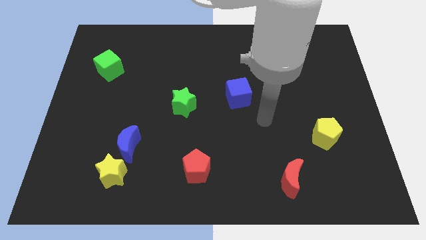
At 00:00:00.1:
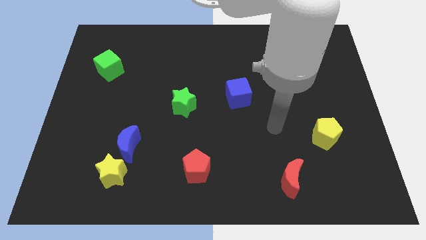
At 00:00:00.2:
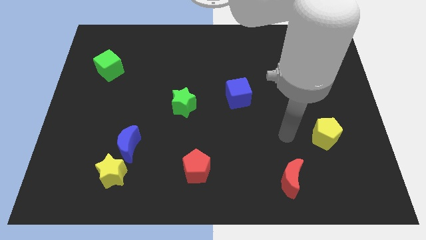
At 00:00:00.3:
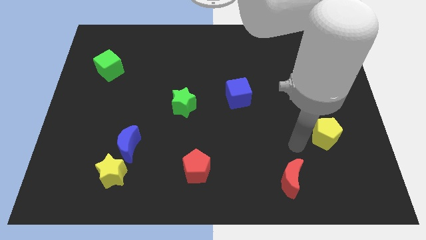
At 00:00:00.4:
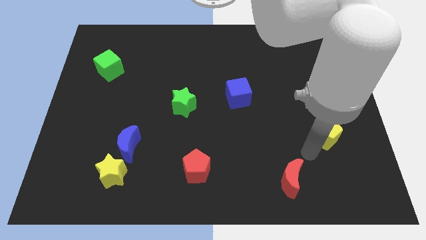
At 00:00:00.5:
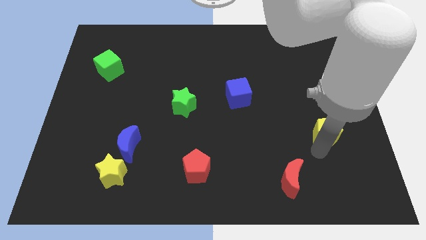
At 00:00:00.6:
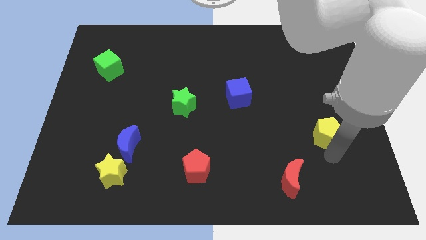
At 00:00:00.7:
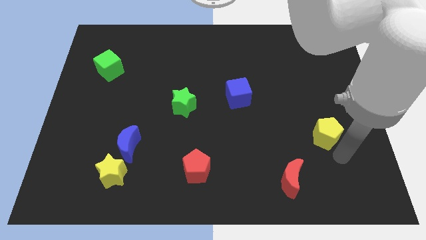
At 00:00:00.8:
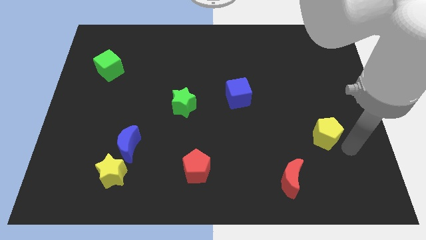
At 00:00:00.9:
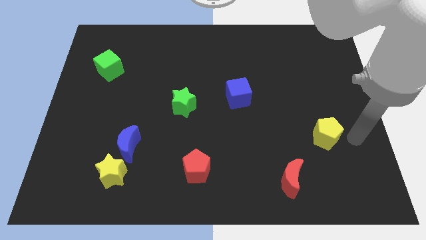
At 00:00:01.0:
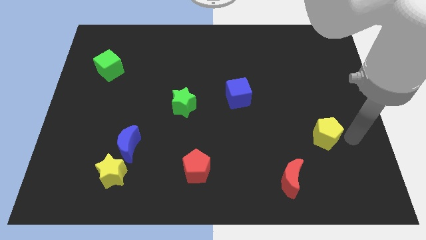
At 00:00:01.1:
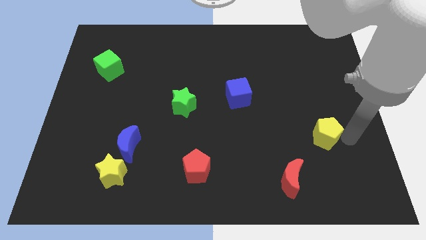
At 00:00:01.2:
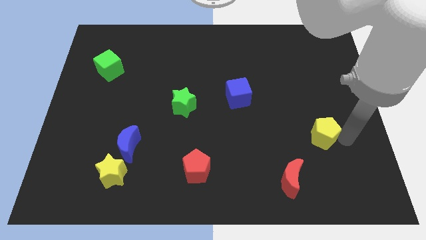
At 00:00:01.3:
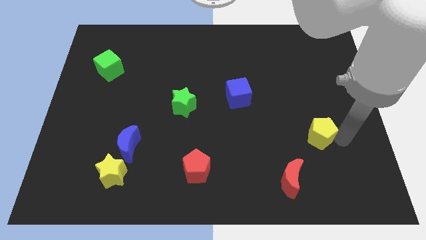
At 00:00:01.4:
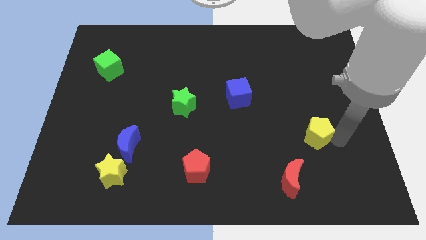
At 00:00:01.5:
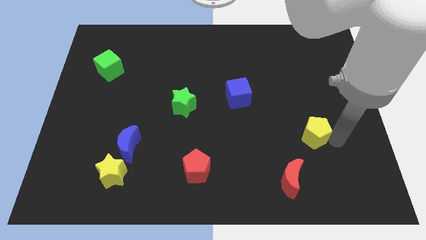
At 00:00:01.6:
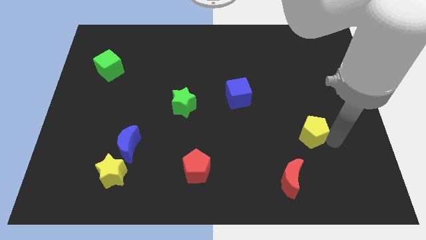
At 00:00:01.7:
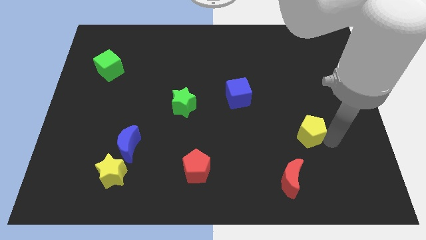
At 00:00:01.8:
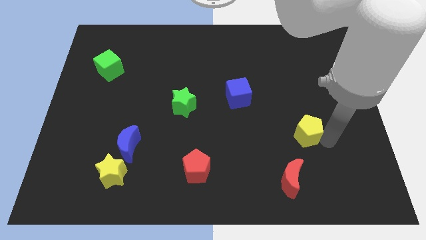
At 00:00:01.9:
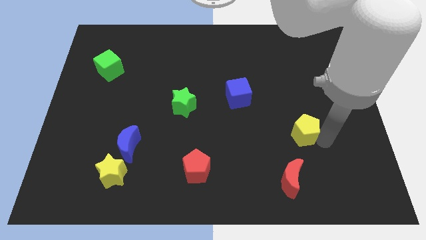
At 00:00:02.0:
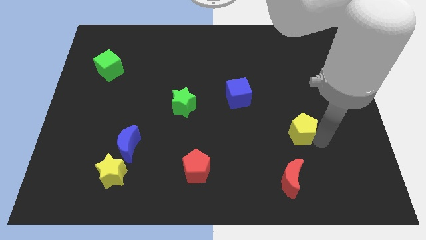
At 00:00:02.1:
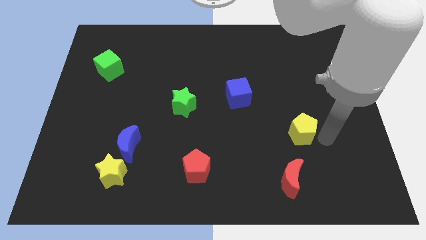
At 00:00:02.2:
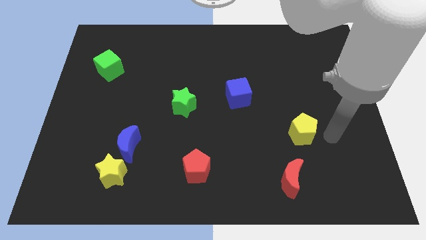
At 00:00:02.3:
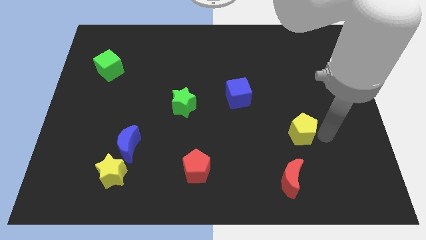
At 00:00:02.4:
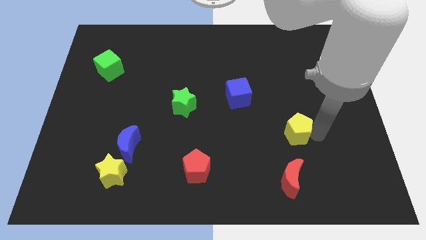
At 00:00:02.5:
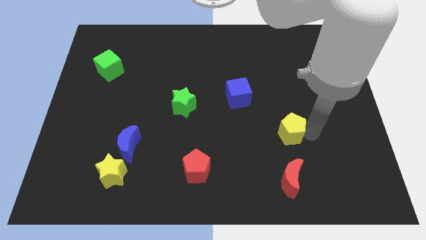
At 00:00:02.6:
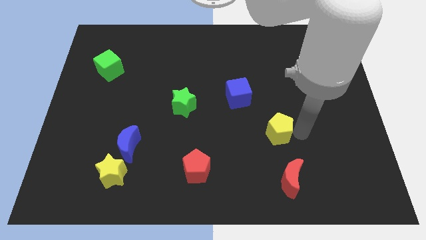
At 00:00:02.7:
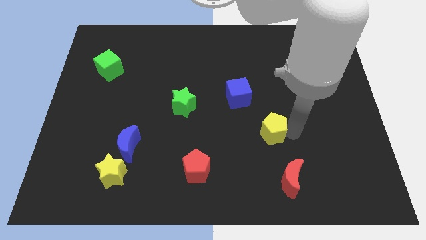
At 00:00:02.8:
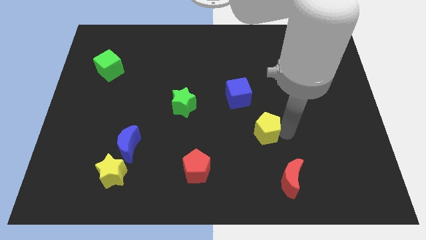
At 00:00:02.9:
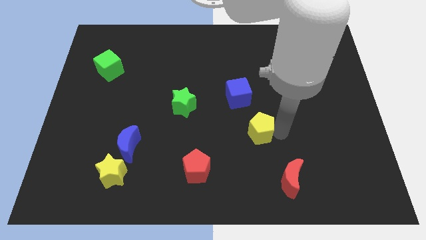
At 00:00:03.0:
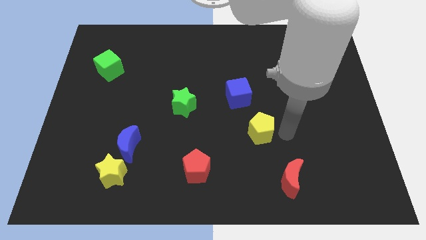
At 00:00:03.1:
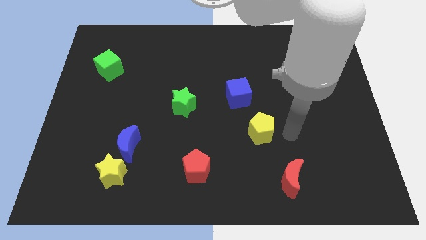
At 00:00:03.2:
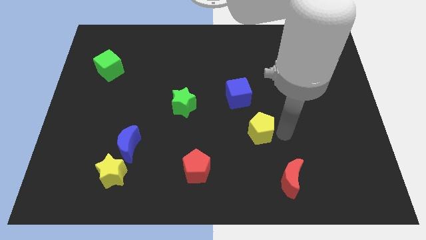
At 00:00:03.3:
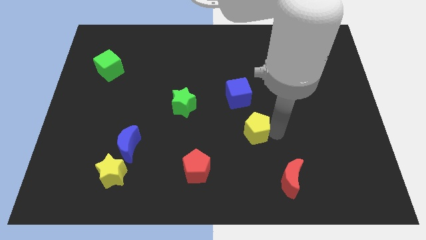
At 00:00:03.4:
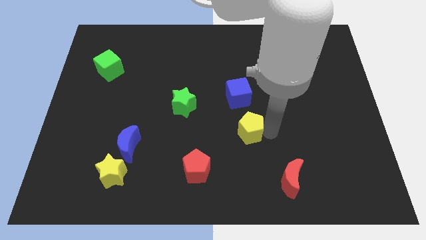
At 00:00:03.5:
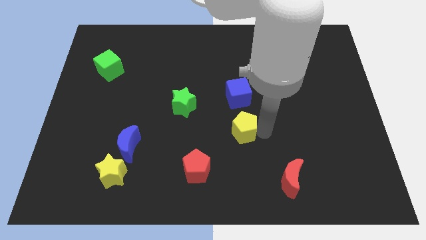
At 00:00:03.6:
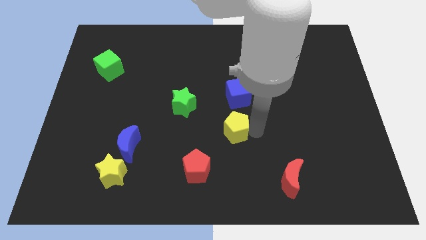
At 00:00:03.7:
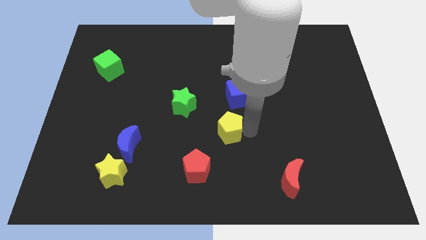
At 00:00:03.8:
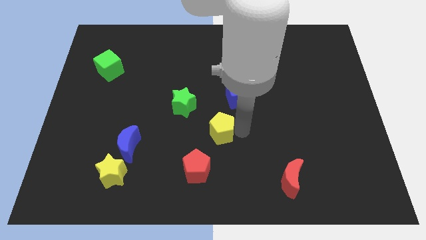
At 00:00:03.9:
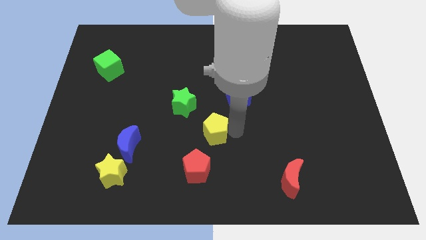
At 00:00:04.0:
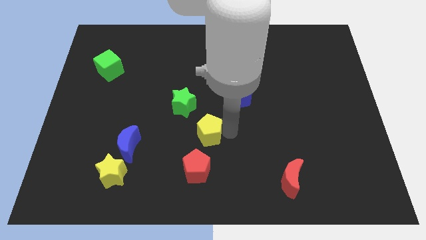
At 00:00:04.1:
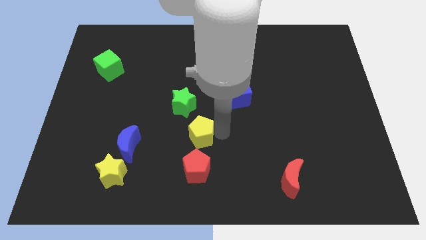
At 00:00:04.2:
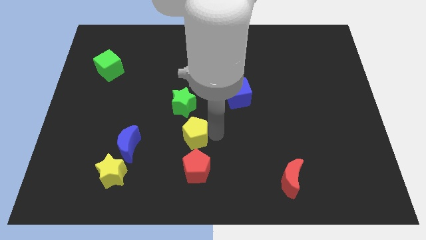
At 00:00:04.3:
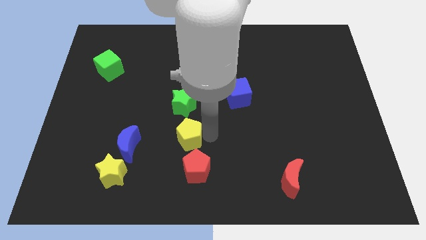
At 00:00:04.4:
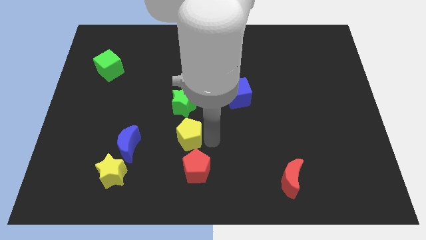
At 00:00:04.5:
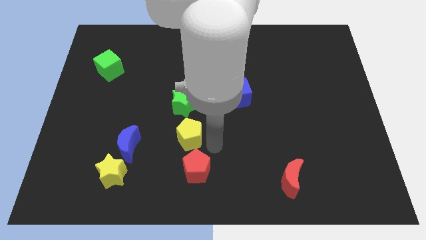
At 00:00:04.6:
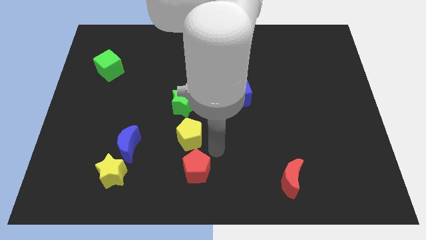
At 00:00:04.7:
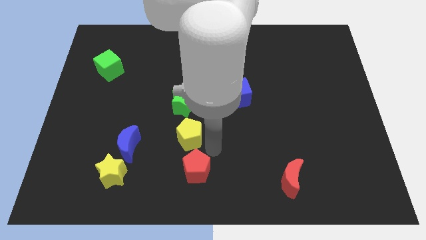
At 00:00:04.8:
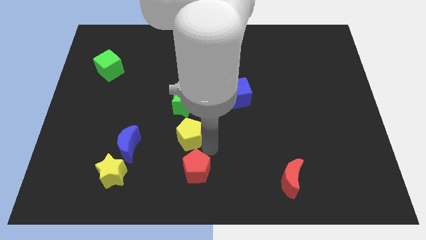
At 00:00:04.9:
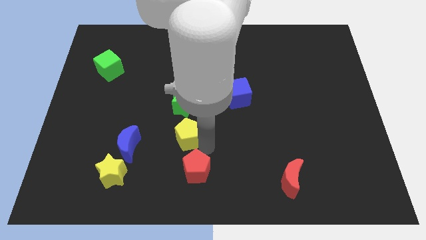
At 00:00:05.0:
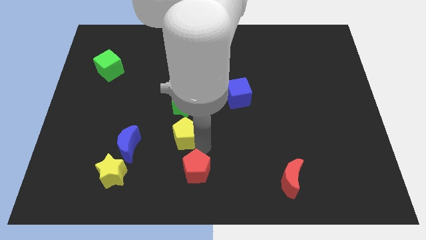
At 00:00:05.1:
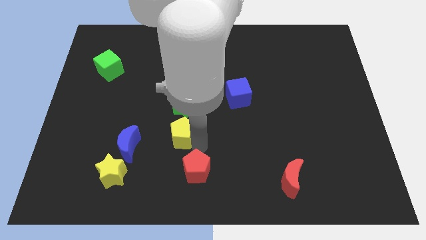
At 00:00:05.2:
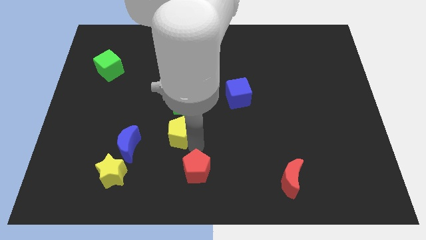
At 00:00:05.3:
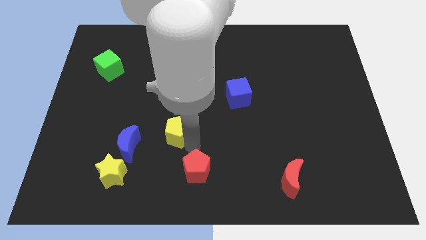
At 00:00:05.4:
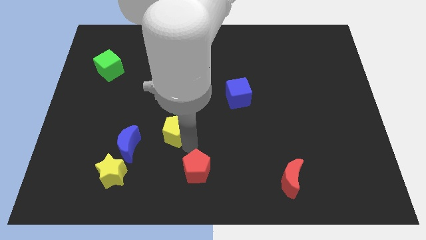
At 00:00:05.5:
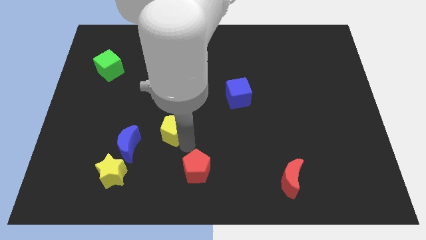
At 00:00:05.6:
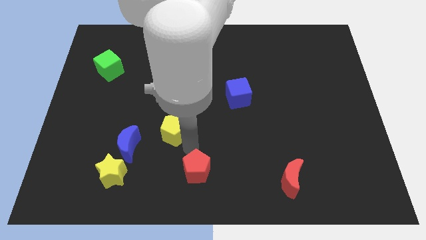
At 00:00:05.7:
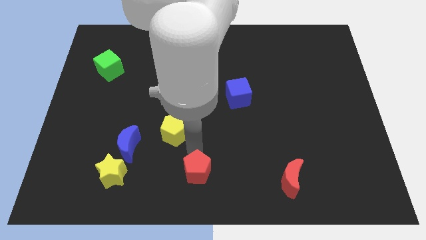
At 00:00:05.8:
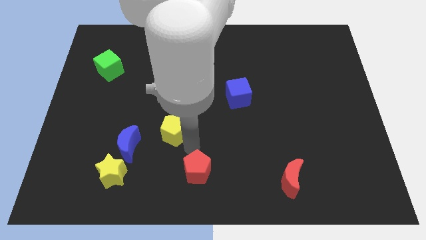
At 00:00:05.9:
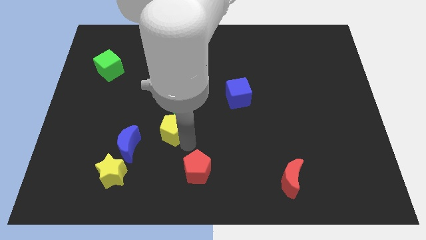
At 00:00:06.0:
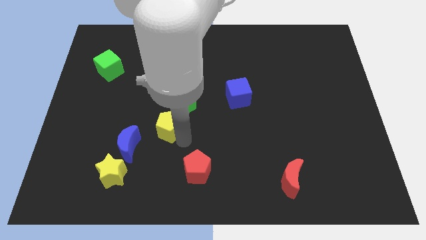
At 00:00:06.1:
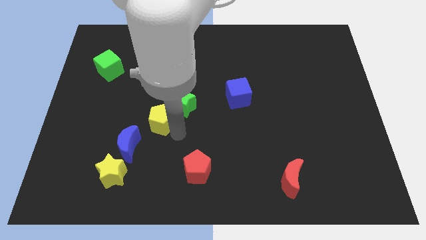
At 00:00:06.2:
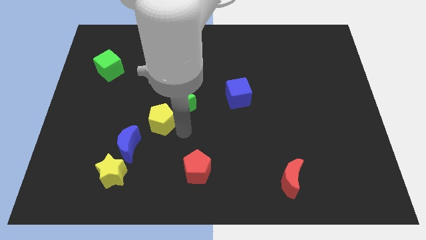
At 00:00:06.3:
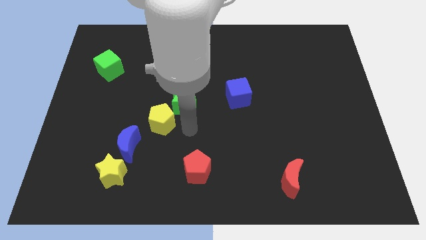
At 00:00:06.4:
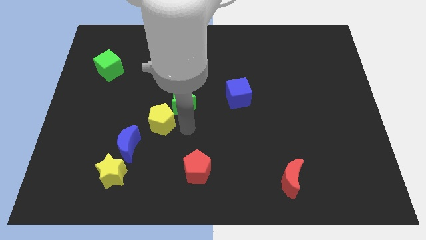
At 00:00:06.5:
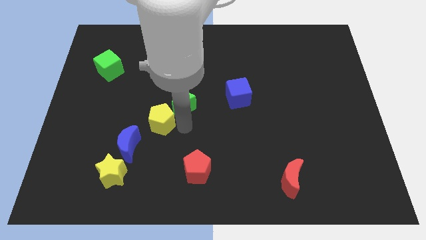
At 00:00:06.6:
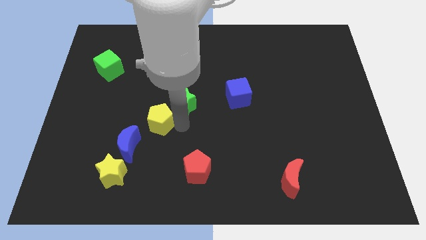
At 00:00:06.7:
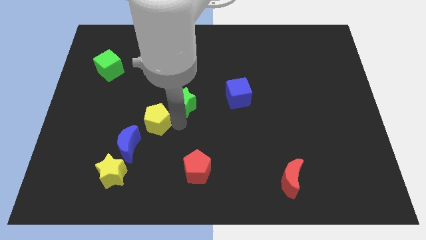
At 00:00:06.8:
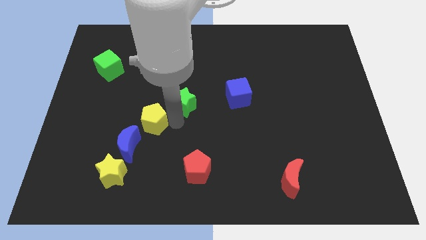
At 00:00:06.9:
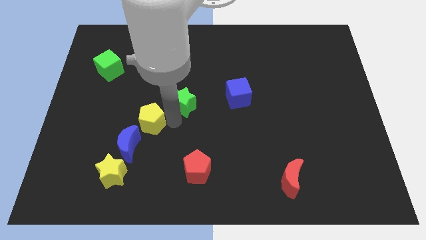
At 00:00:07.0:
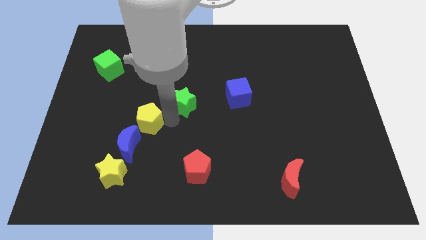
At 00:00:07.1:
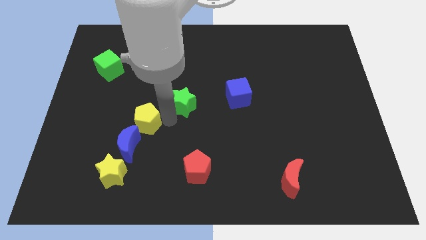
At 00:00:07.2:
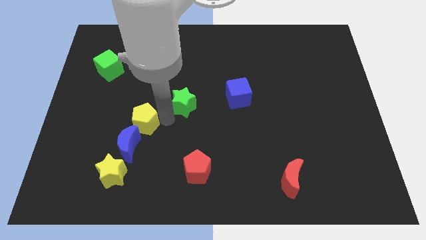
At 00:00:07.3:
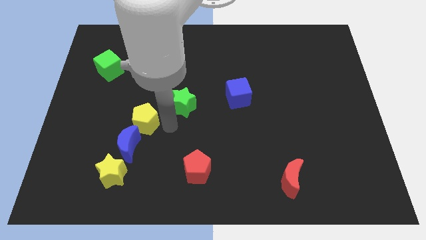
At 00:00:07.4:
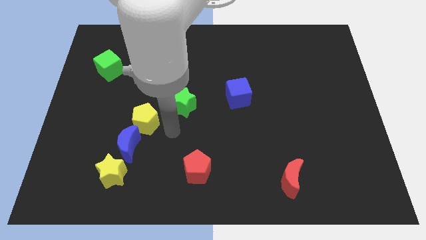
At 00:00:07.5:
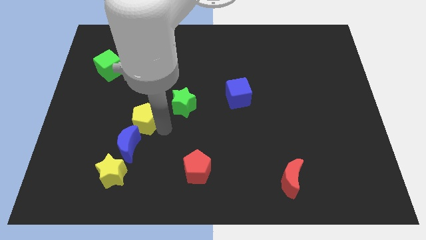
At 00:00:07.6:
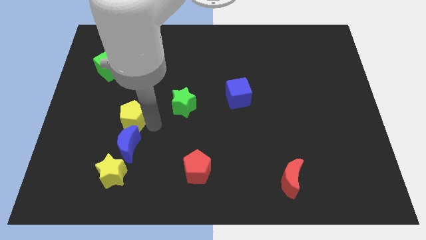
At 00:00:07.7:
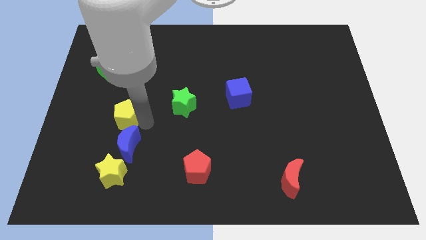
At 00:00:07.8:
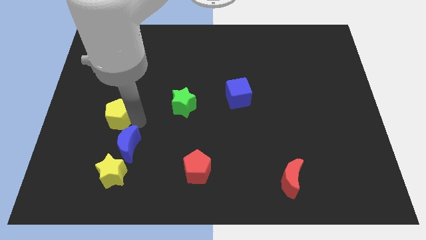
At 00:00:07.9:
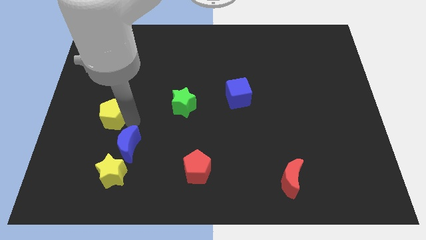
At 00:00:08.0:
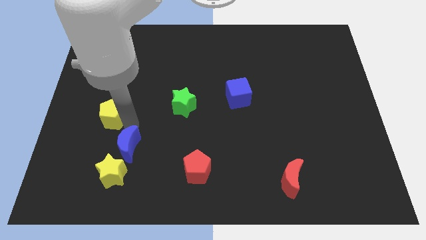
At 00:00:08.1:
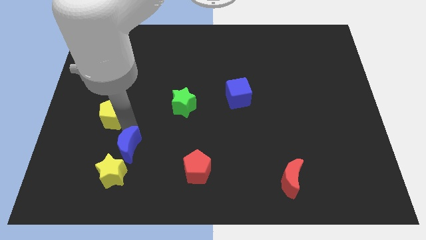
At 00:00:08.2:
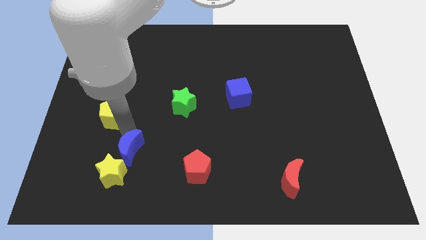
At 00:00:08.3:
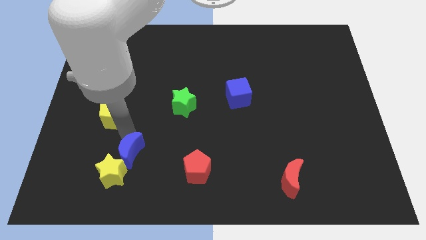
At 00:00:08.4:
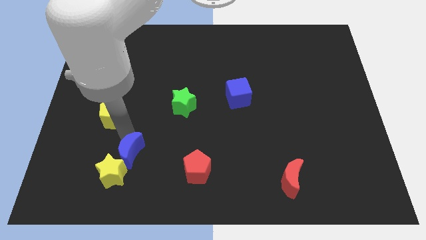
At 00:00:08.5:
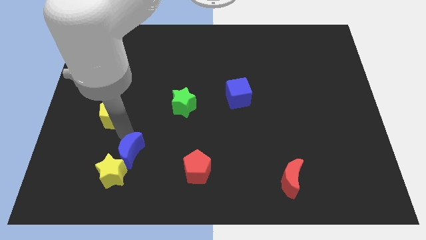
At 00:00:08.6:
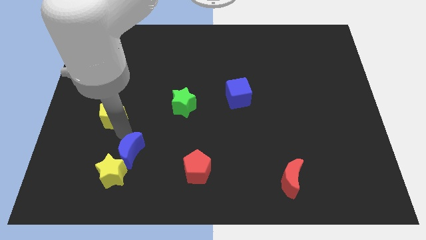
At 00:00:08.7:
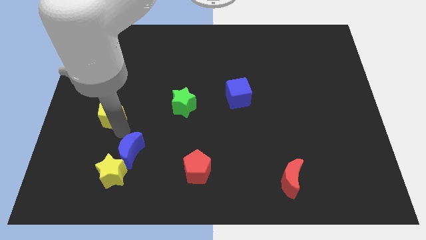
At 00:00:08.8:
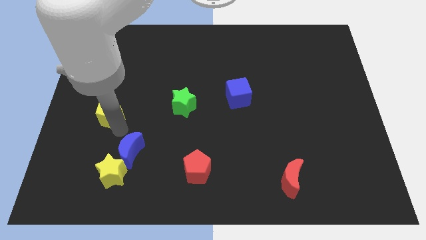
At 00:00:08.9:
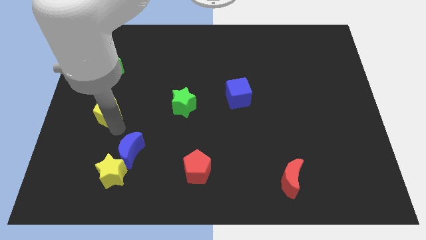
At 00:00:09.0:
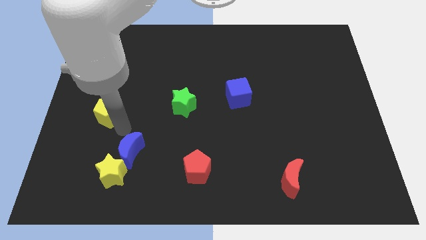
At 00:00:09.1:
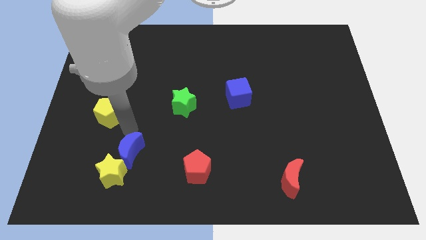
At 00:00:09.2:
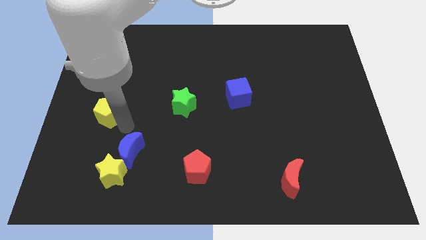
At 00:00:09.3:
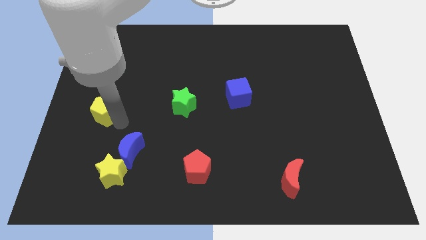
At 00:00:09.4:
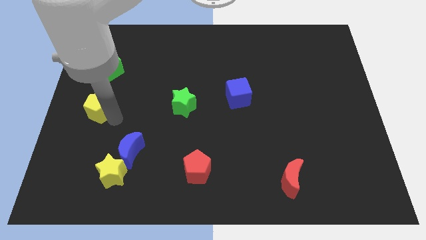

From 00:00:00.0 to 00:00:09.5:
put the yellow pentagon to the center left
